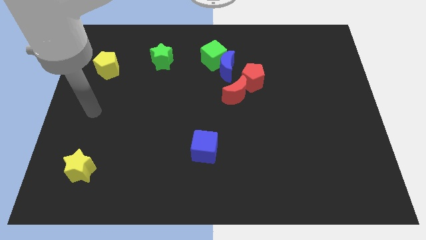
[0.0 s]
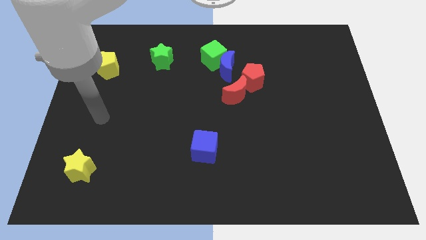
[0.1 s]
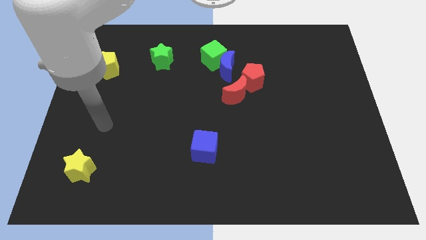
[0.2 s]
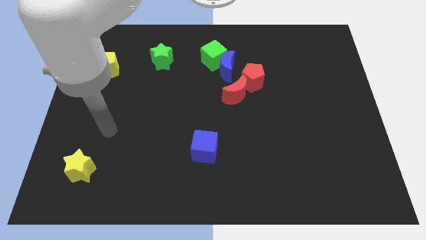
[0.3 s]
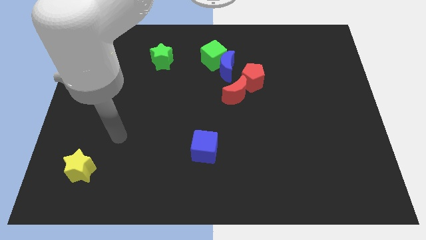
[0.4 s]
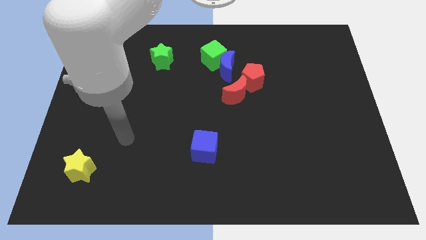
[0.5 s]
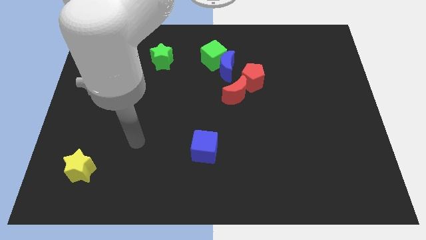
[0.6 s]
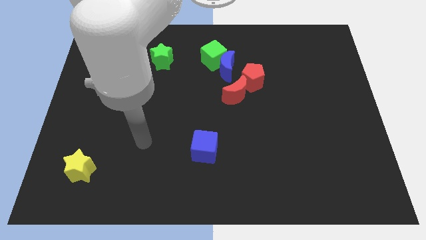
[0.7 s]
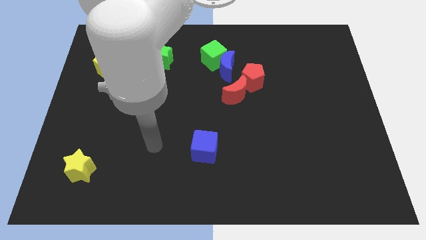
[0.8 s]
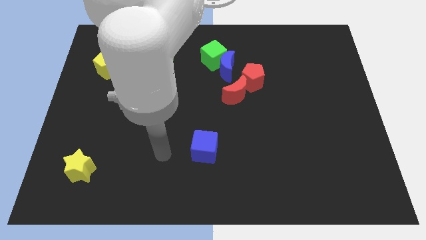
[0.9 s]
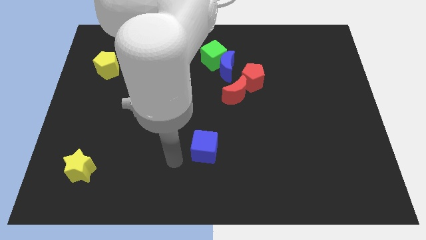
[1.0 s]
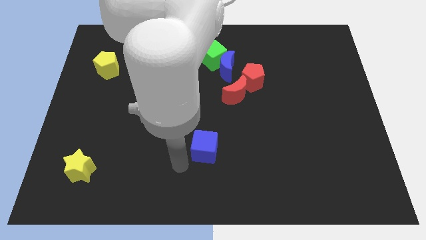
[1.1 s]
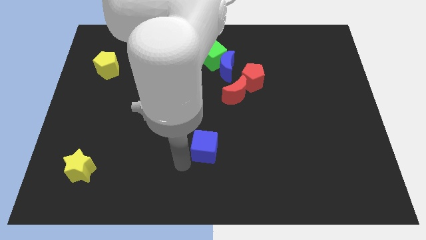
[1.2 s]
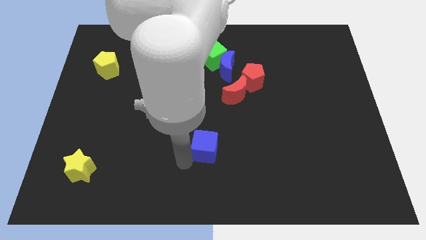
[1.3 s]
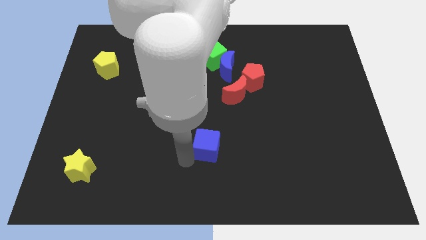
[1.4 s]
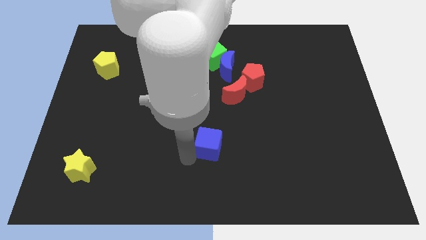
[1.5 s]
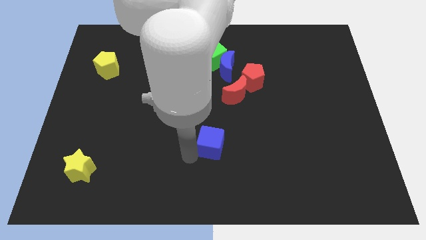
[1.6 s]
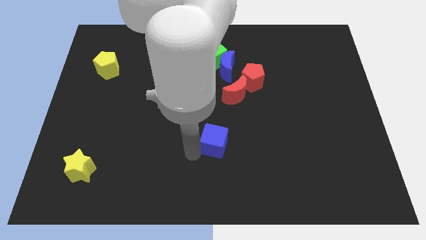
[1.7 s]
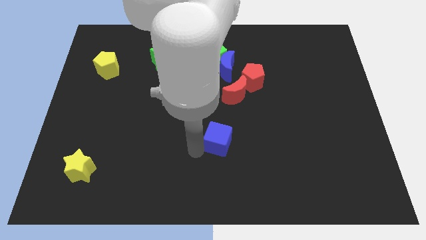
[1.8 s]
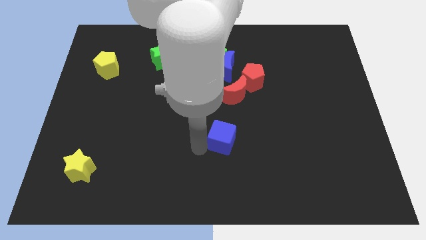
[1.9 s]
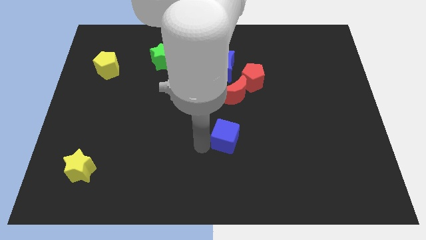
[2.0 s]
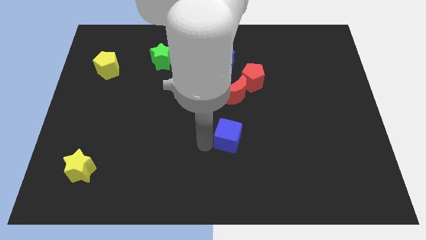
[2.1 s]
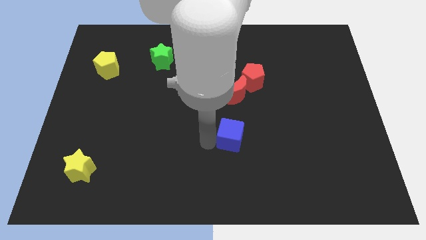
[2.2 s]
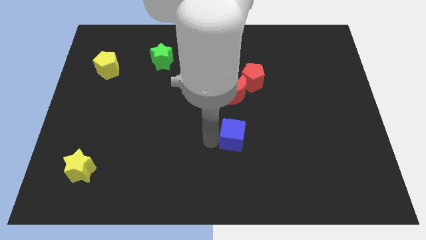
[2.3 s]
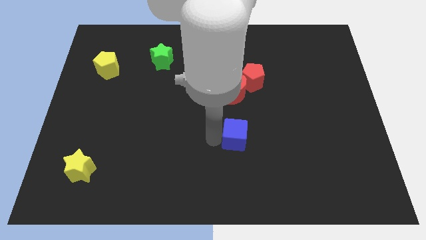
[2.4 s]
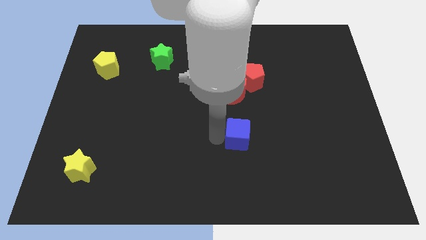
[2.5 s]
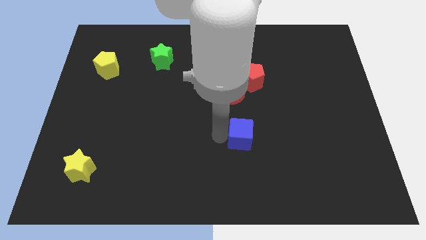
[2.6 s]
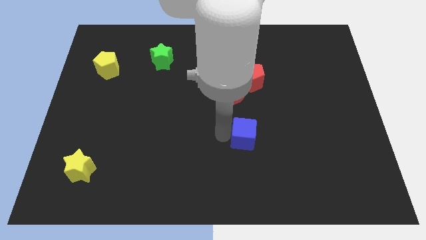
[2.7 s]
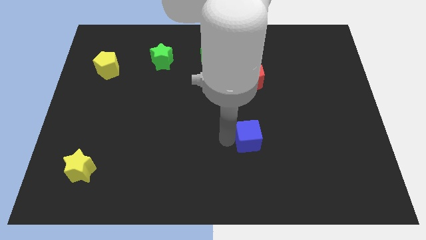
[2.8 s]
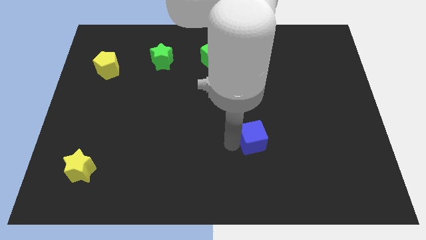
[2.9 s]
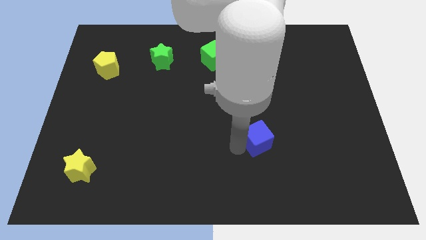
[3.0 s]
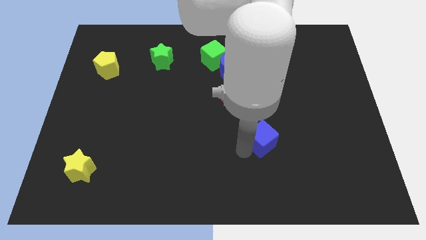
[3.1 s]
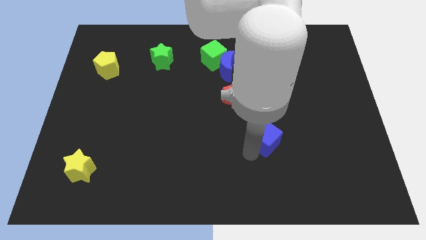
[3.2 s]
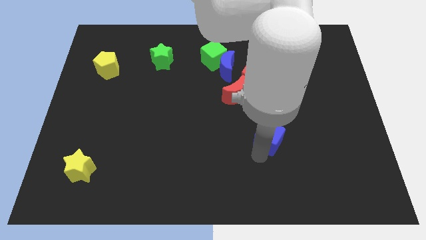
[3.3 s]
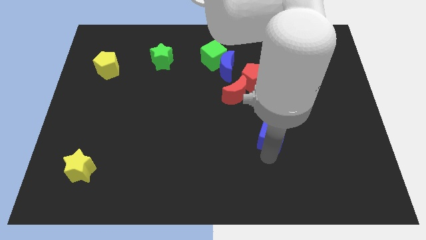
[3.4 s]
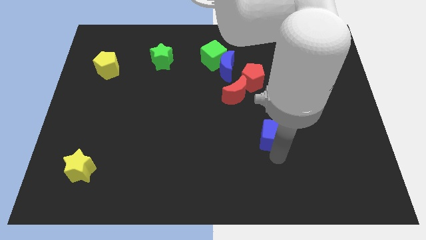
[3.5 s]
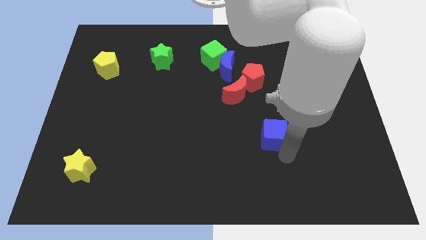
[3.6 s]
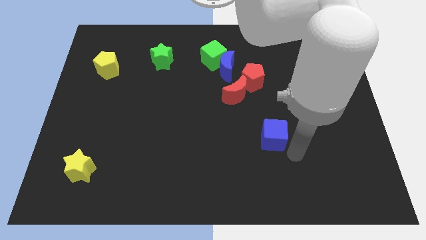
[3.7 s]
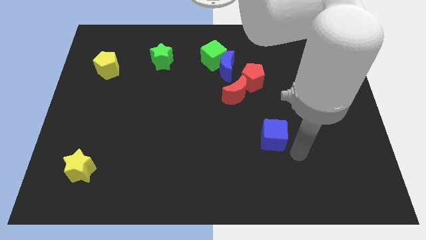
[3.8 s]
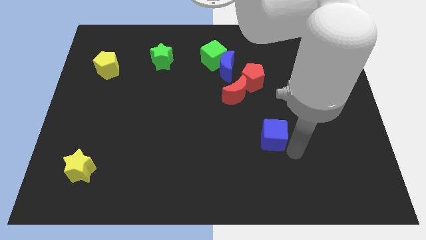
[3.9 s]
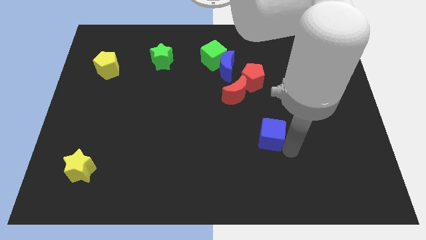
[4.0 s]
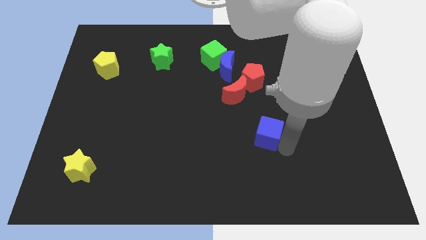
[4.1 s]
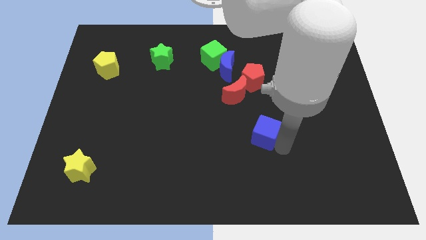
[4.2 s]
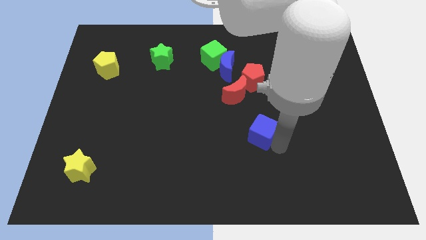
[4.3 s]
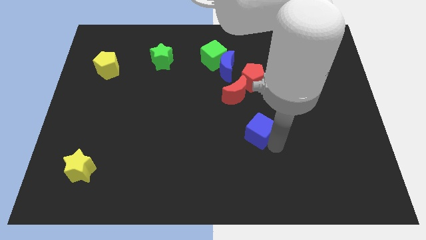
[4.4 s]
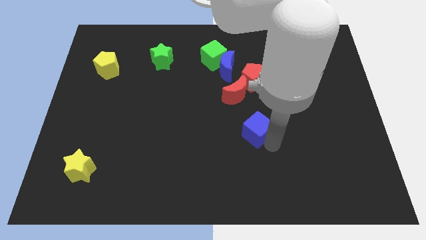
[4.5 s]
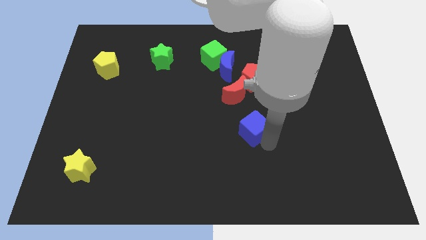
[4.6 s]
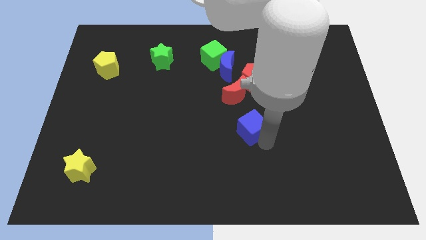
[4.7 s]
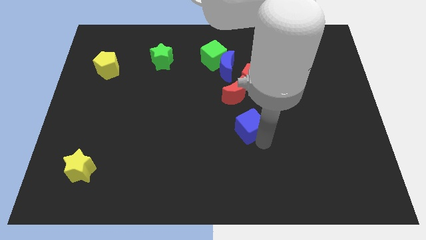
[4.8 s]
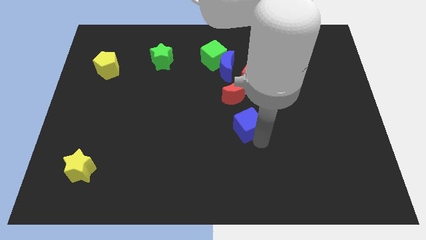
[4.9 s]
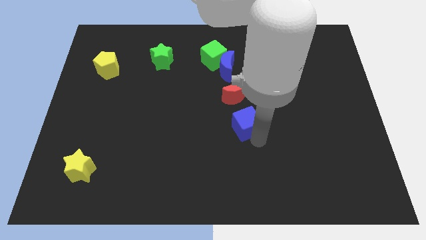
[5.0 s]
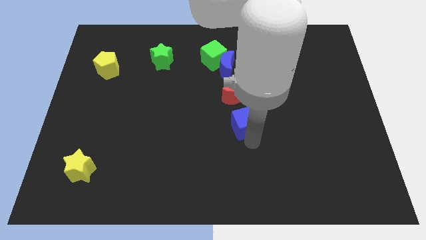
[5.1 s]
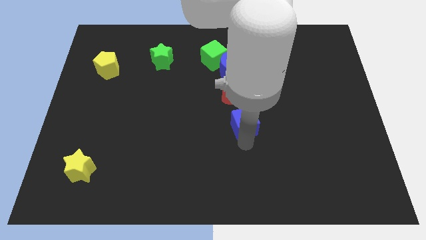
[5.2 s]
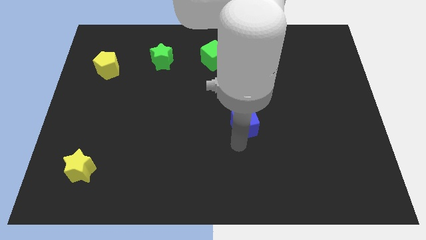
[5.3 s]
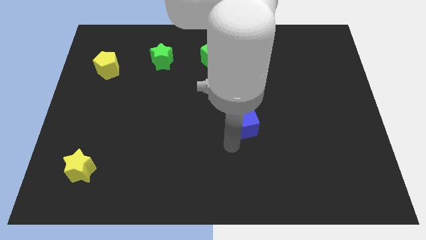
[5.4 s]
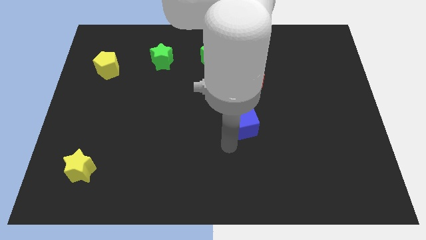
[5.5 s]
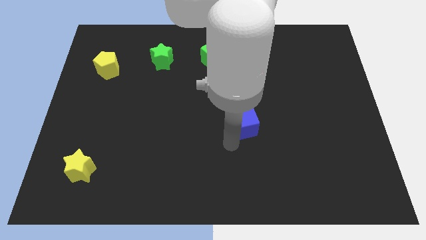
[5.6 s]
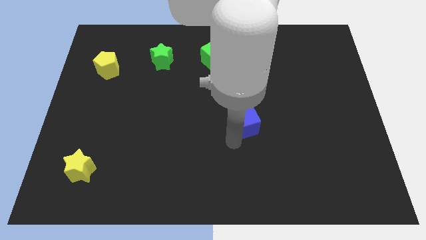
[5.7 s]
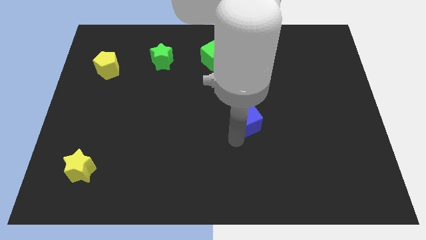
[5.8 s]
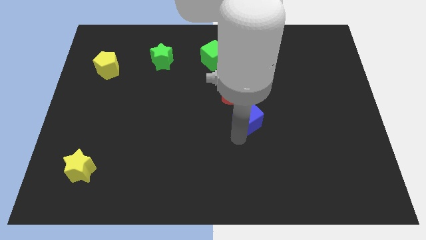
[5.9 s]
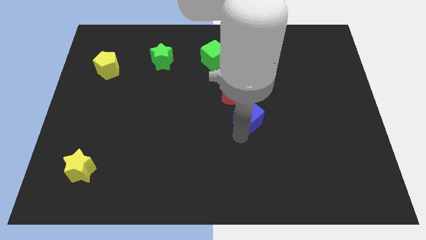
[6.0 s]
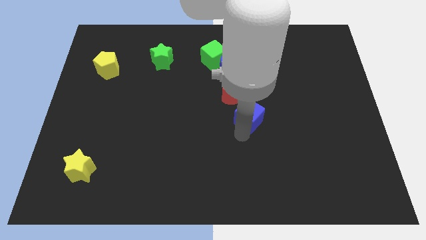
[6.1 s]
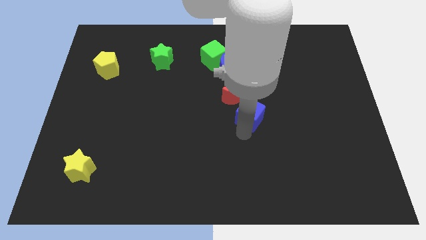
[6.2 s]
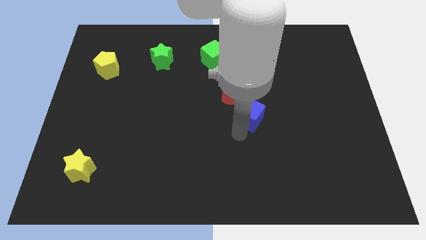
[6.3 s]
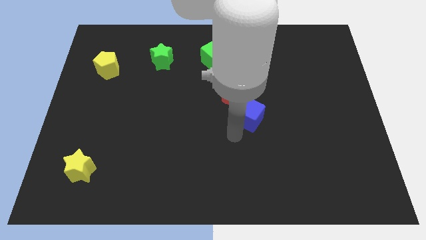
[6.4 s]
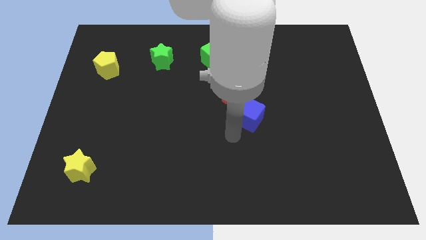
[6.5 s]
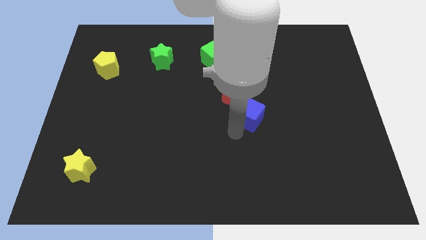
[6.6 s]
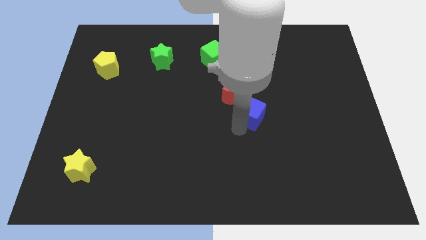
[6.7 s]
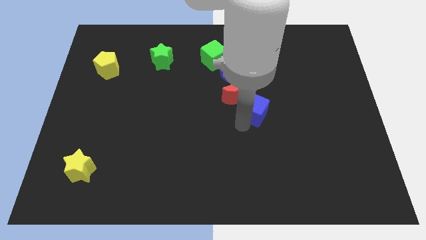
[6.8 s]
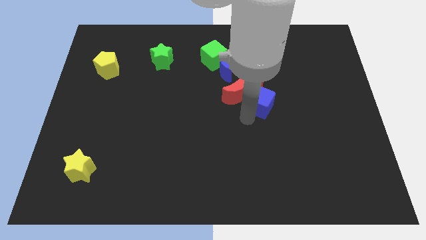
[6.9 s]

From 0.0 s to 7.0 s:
move the blue cube right of the red moon
